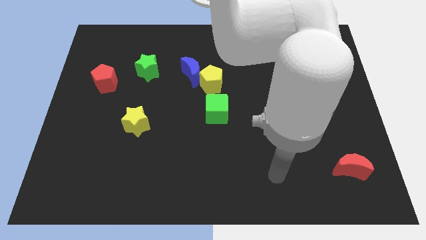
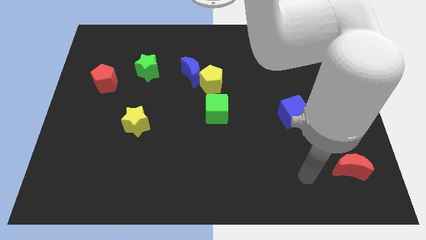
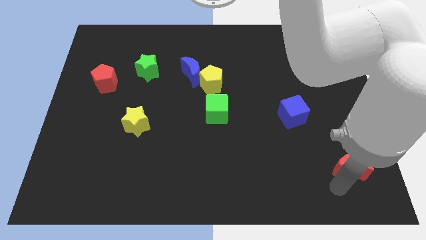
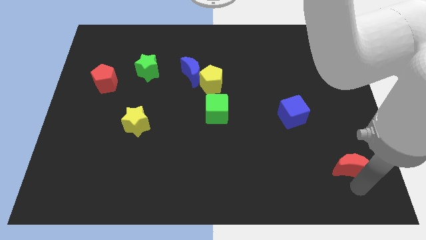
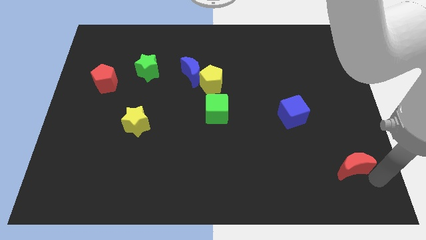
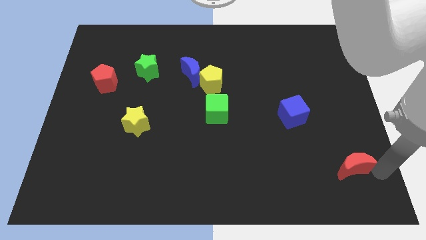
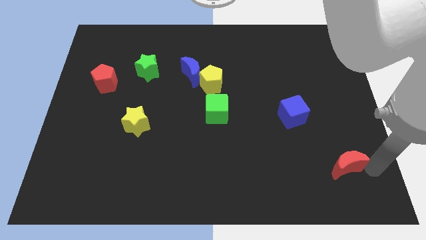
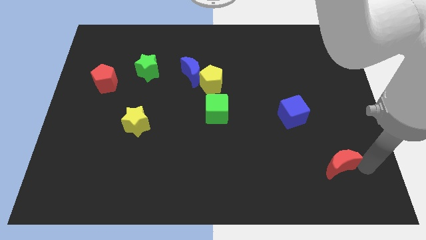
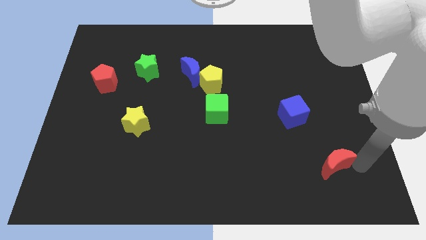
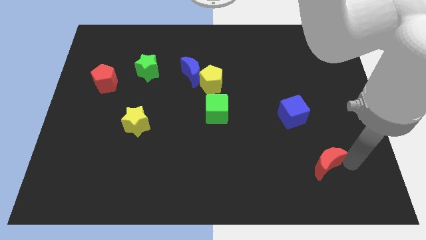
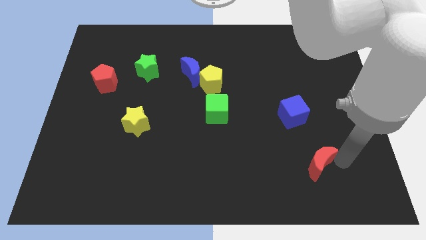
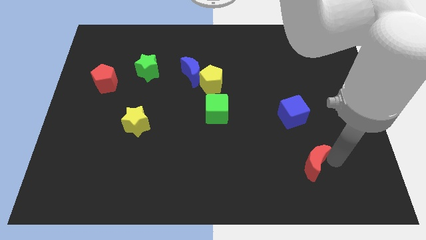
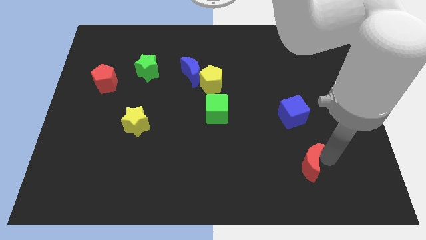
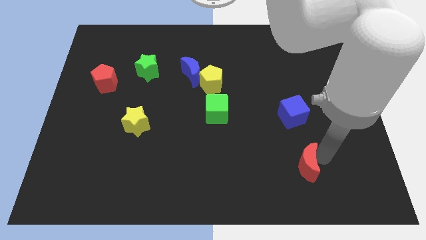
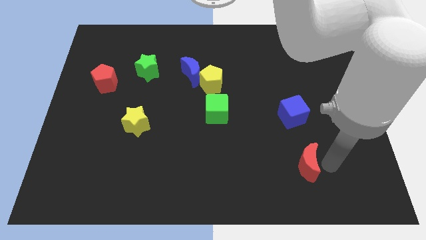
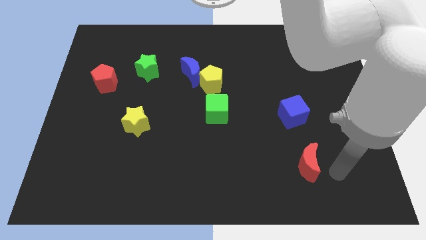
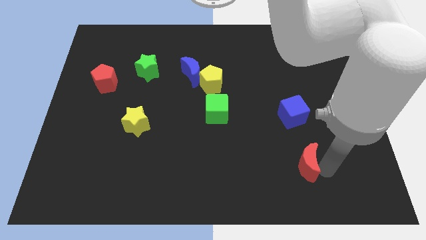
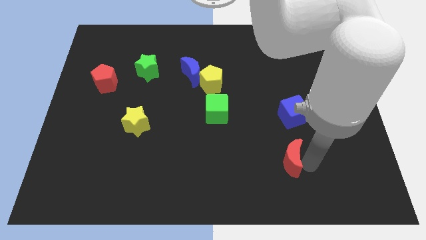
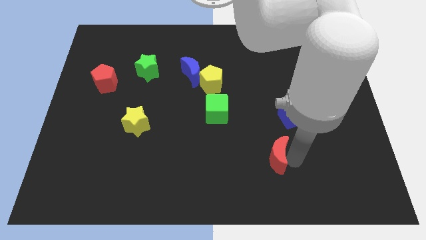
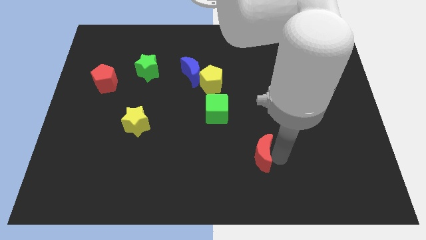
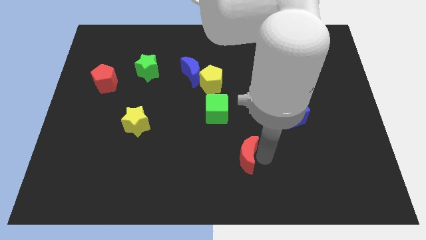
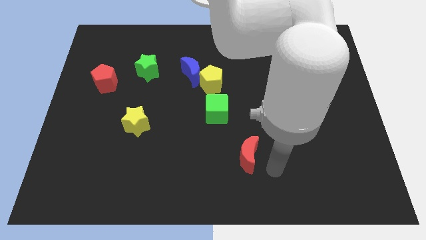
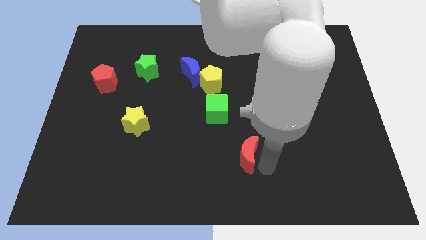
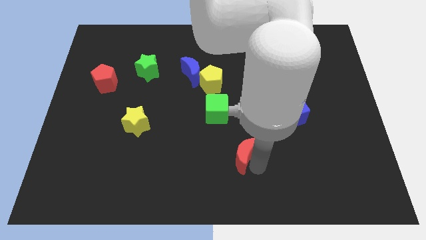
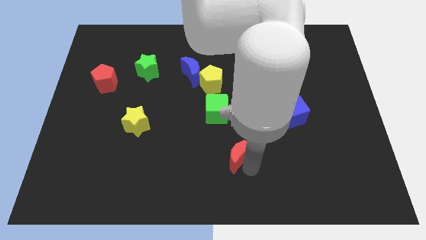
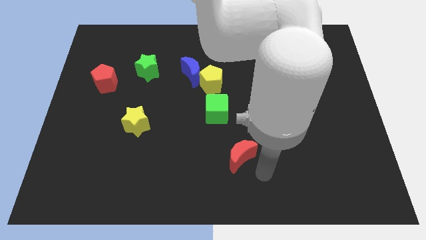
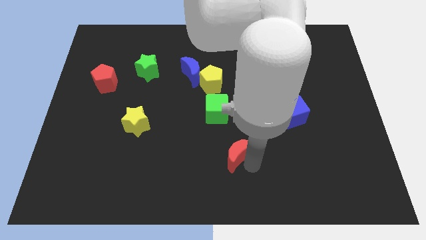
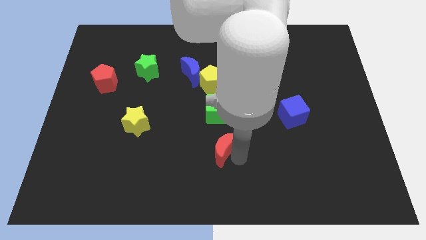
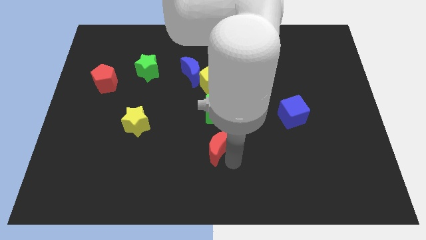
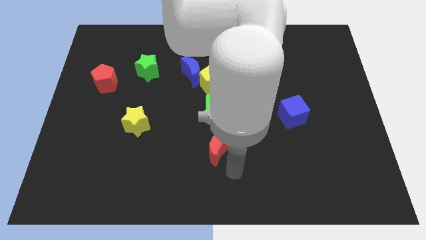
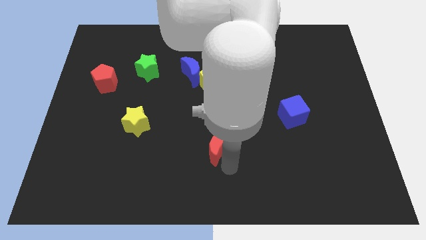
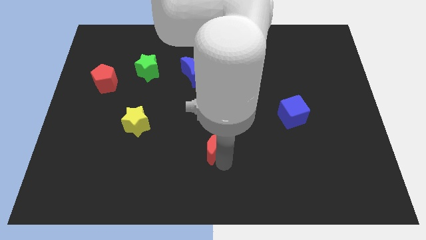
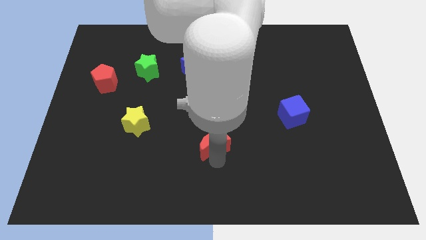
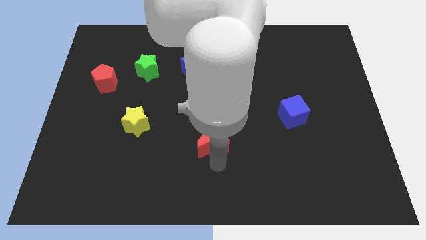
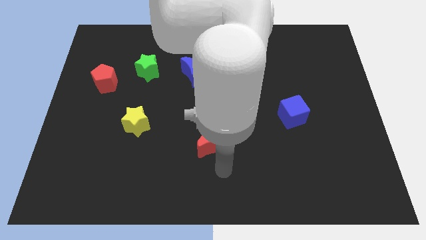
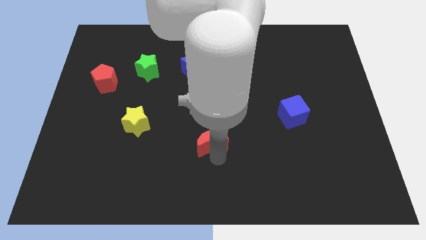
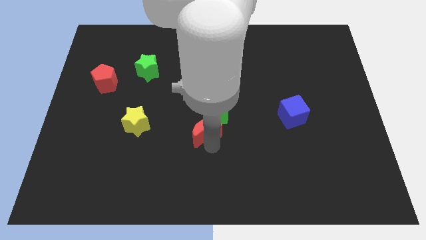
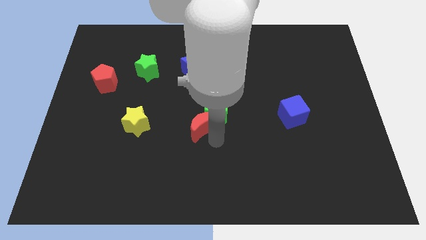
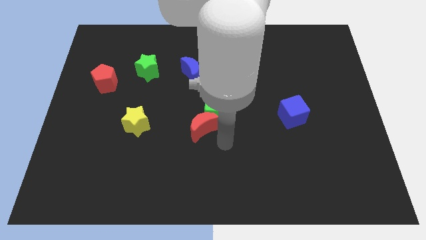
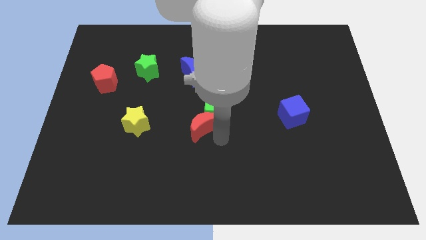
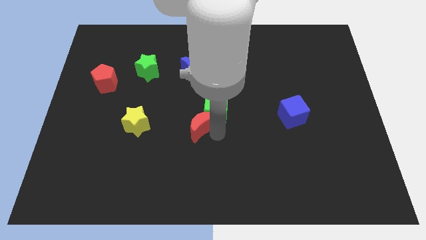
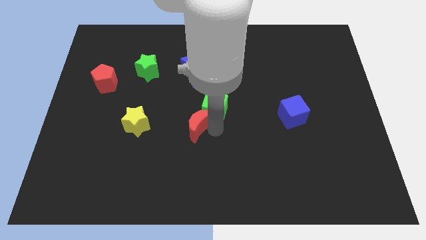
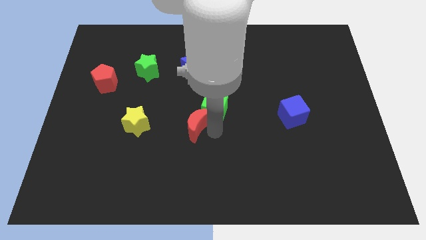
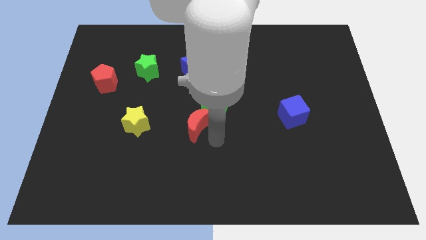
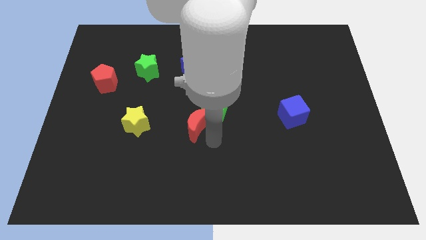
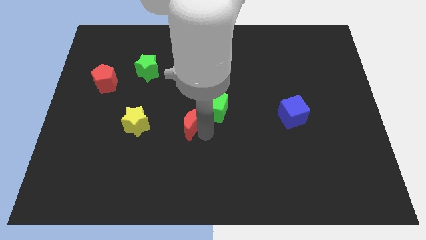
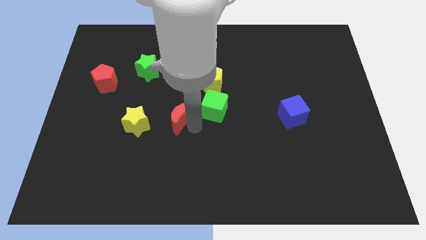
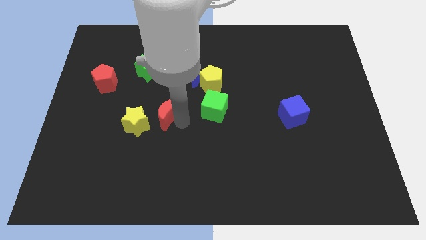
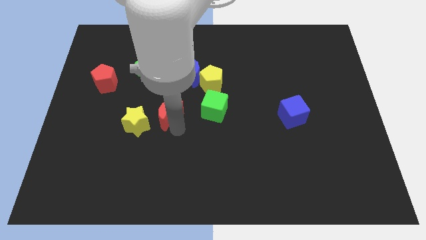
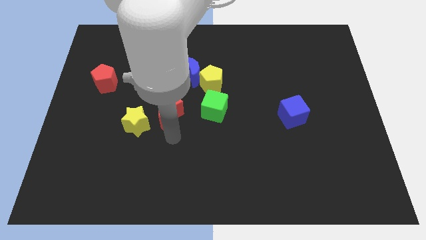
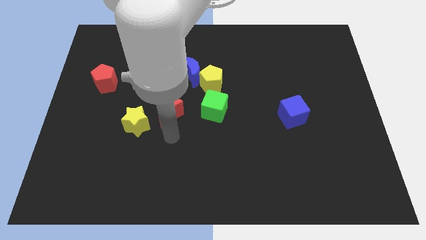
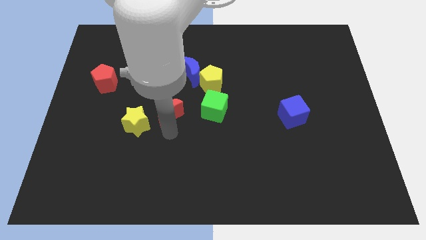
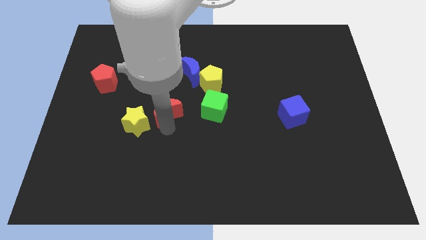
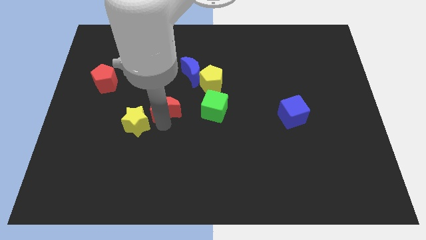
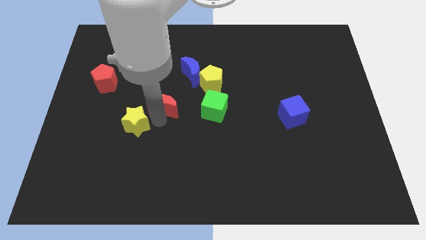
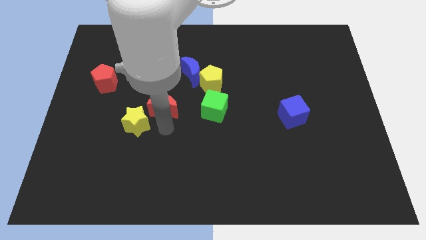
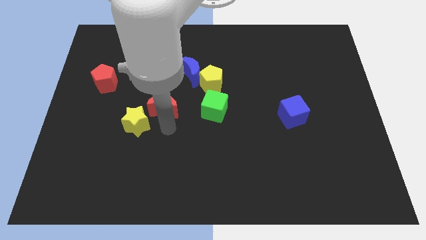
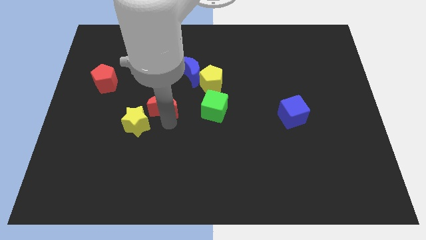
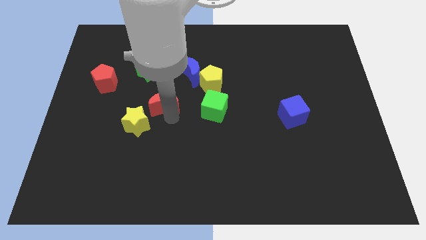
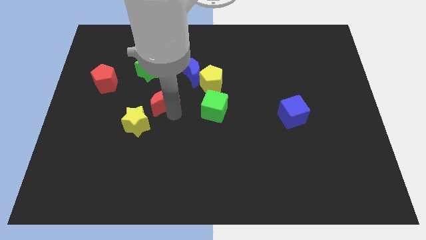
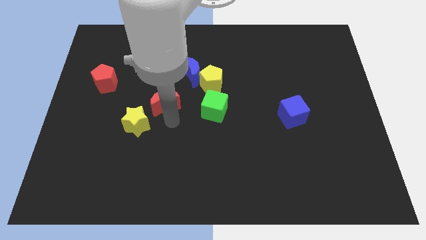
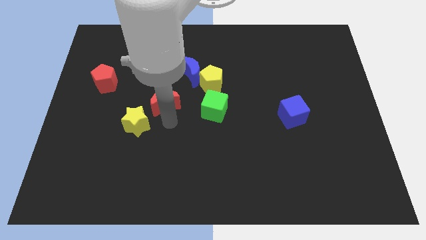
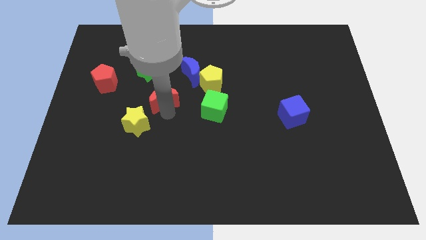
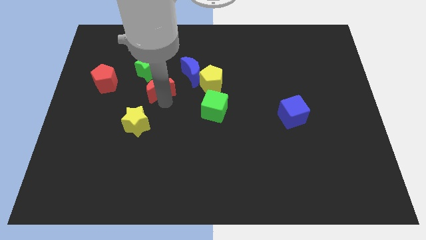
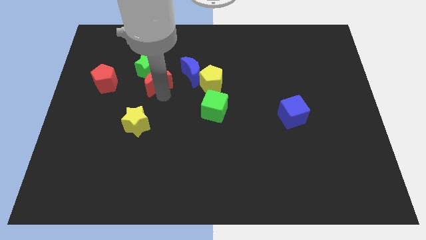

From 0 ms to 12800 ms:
slide the red moon towards the green star

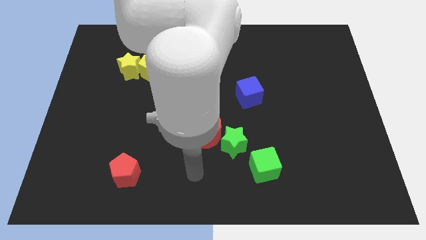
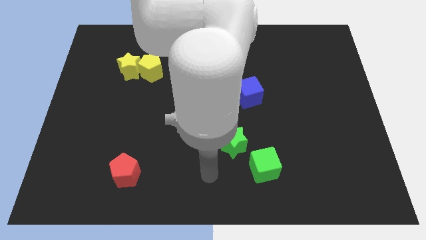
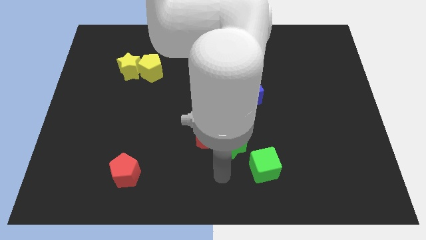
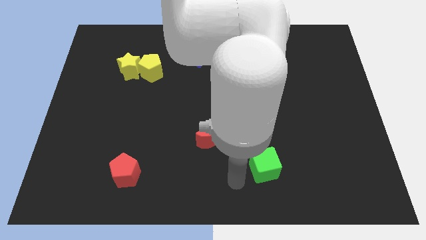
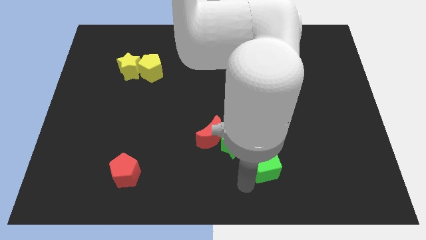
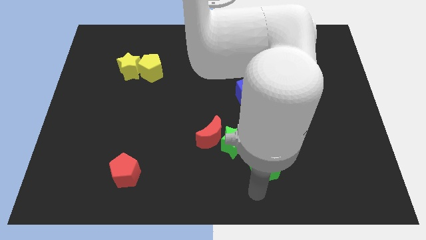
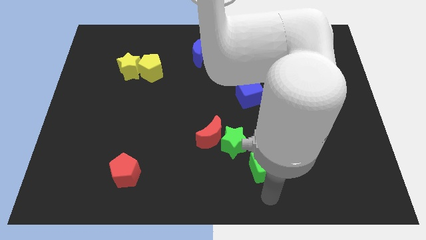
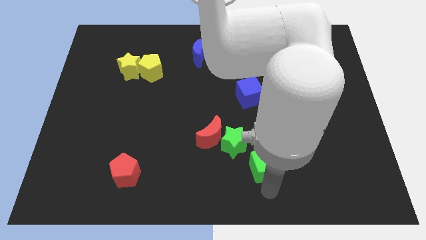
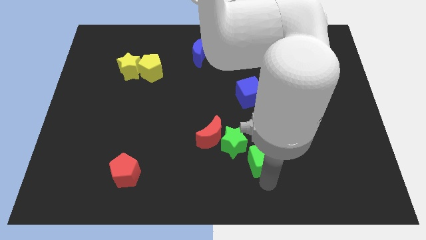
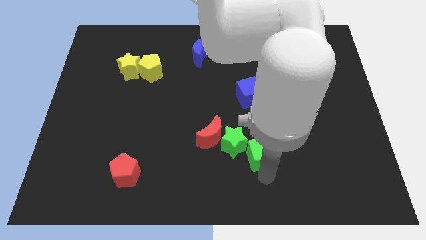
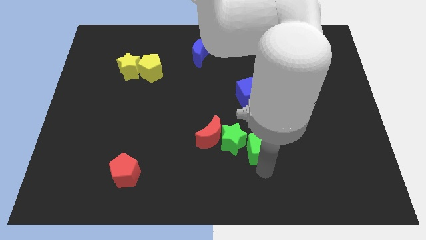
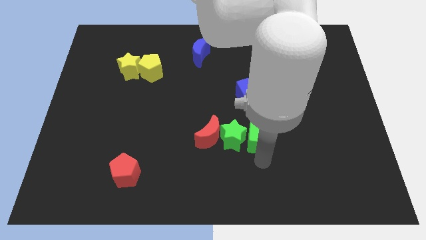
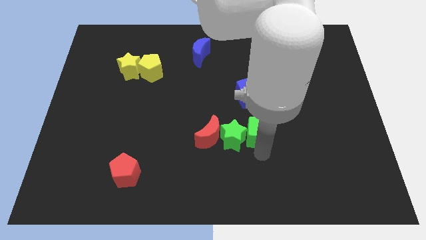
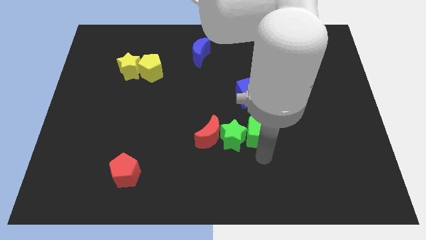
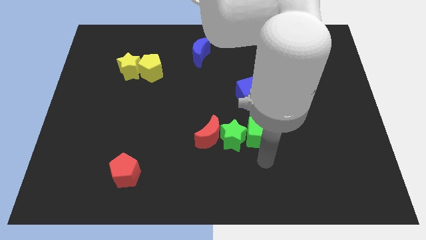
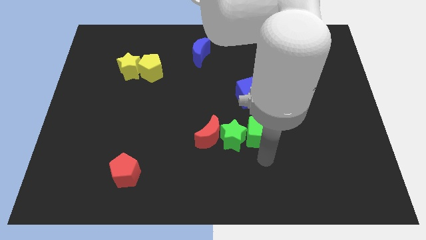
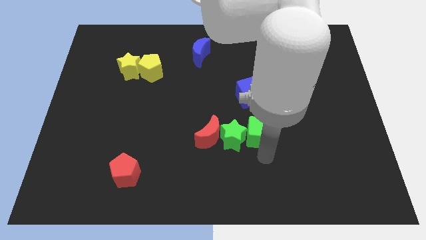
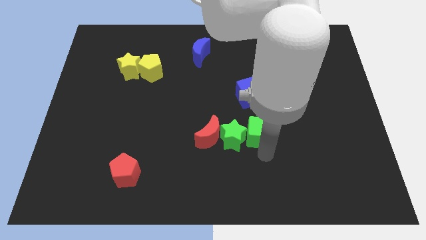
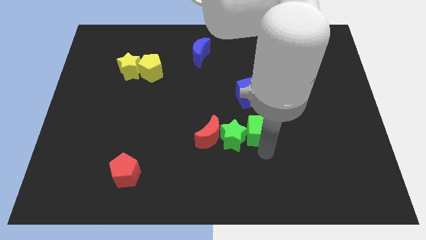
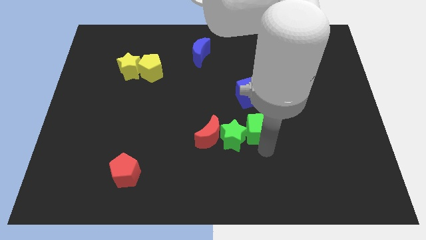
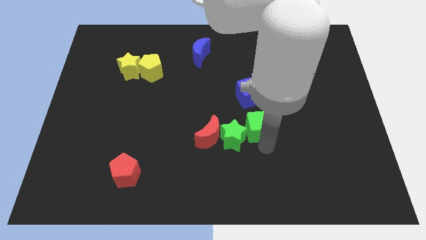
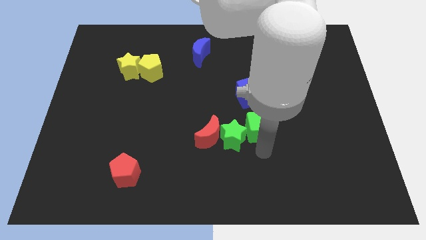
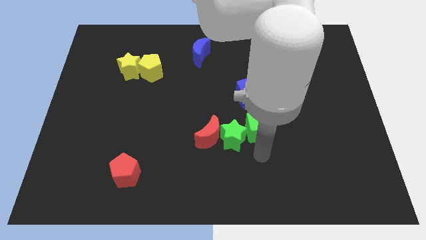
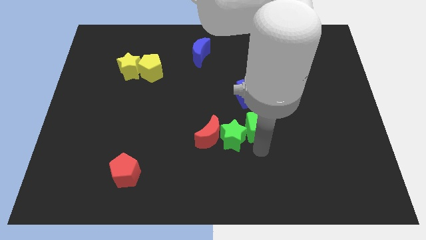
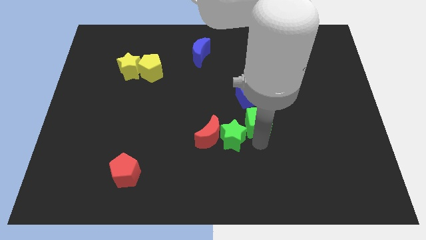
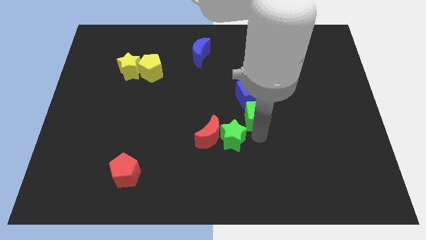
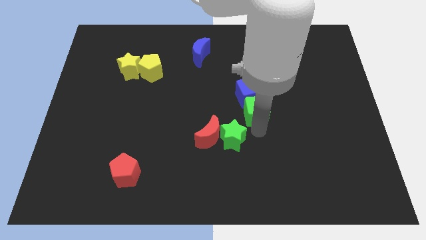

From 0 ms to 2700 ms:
move the green cube next to the blue cube
